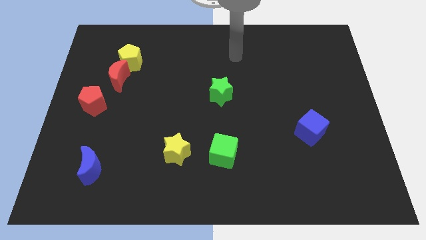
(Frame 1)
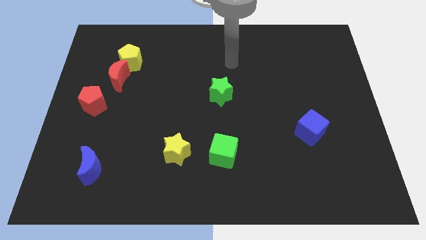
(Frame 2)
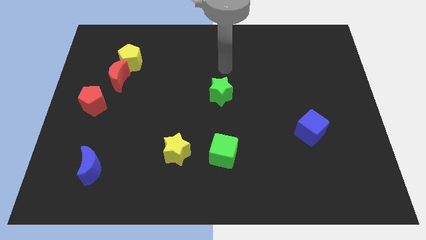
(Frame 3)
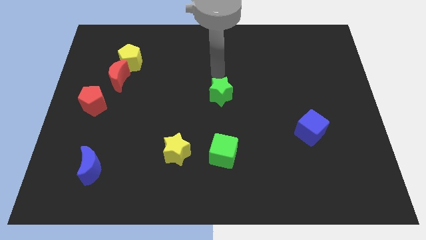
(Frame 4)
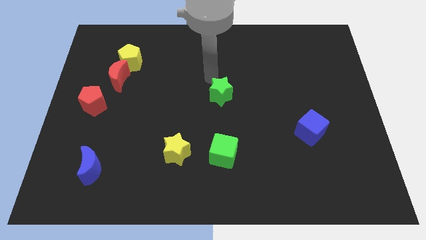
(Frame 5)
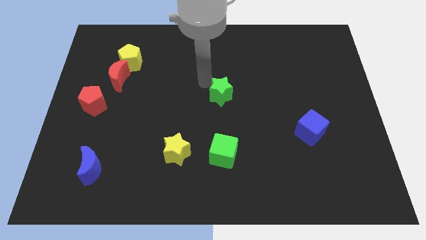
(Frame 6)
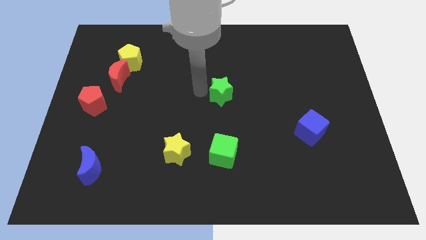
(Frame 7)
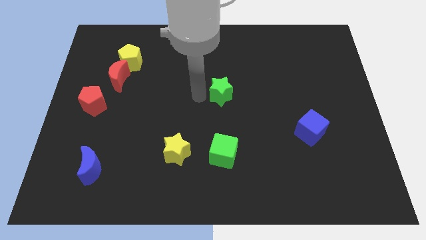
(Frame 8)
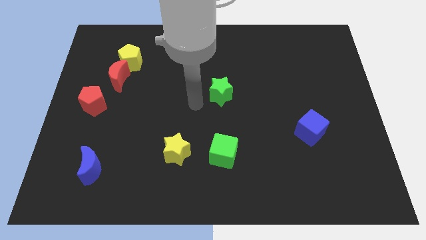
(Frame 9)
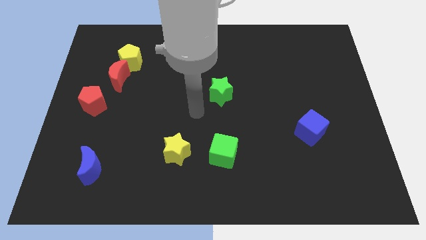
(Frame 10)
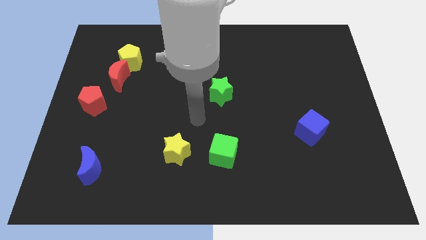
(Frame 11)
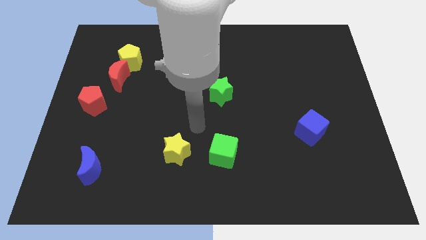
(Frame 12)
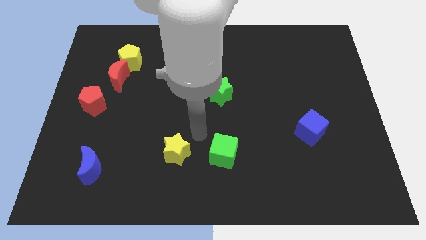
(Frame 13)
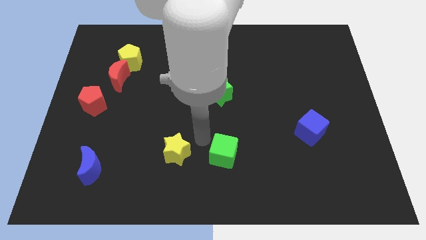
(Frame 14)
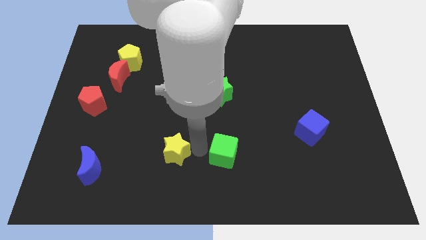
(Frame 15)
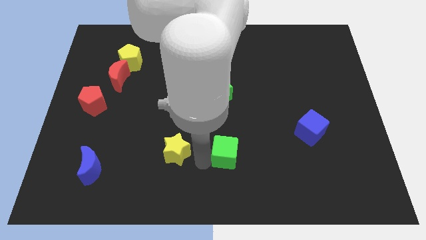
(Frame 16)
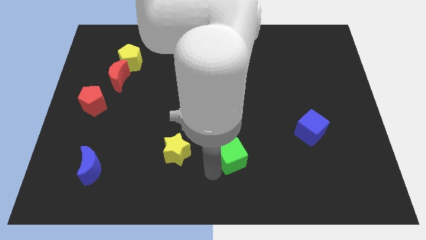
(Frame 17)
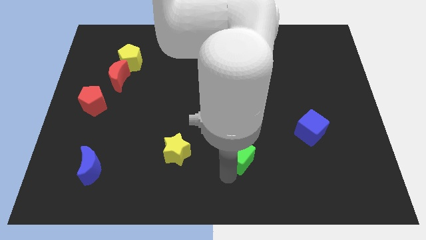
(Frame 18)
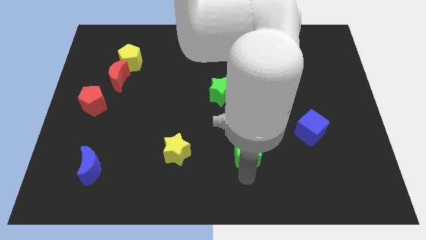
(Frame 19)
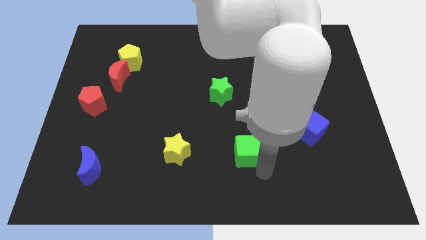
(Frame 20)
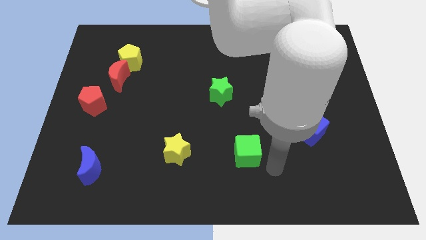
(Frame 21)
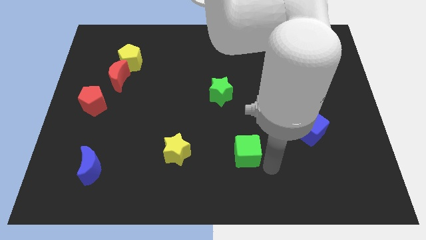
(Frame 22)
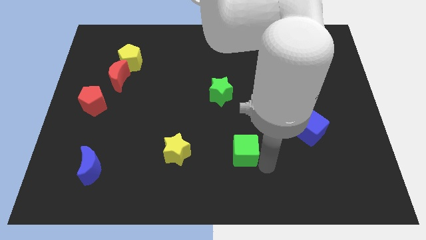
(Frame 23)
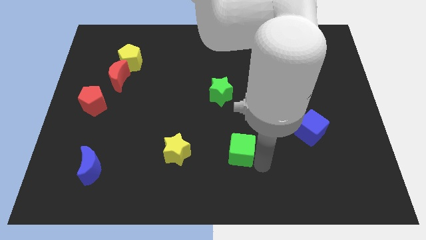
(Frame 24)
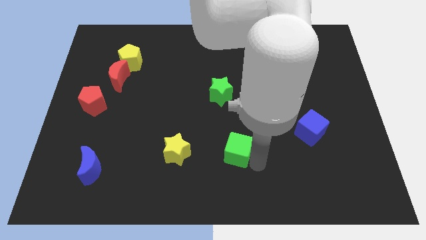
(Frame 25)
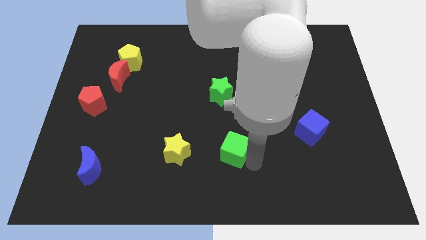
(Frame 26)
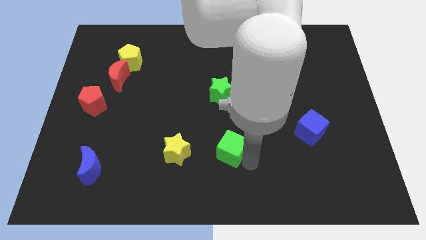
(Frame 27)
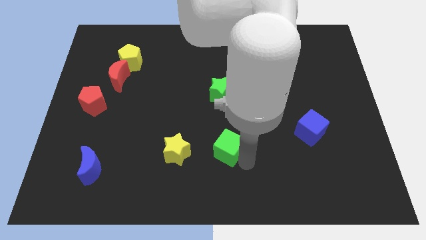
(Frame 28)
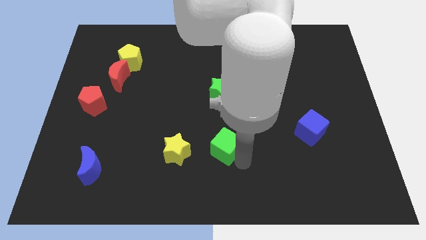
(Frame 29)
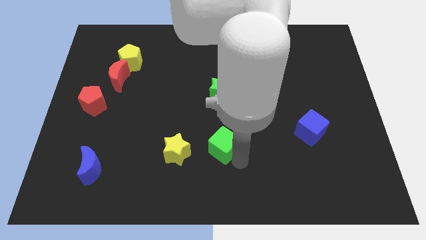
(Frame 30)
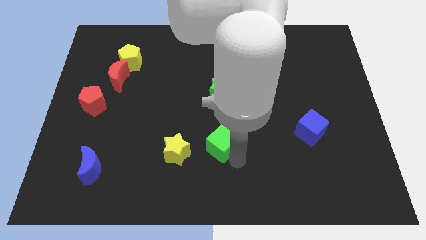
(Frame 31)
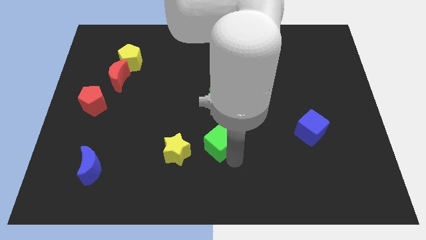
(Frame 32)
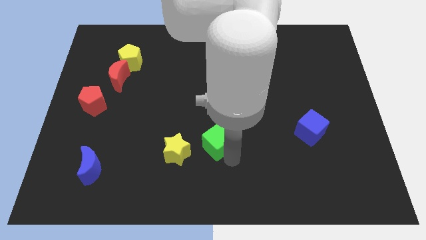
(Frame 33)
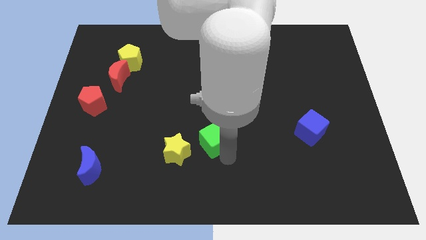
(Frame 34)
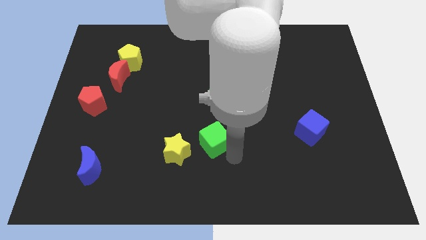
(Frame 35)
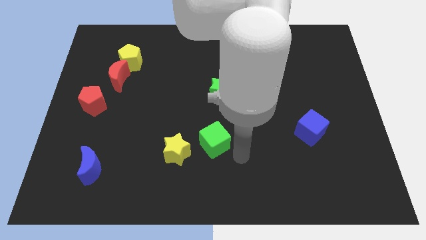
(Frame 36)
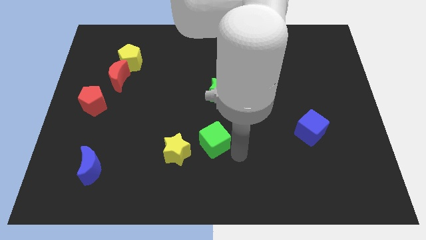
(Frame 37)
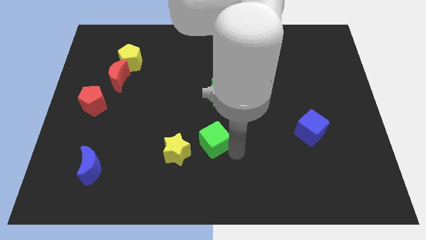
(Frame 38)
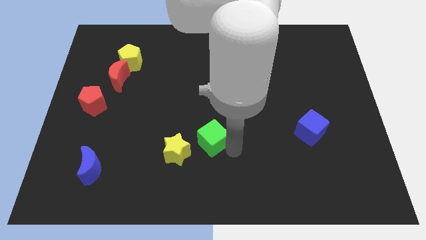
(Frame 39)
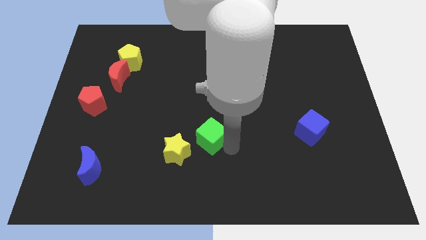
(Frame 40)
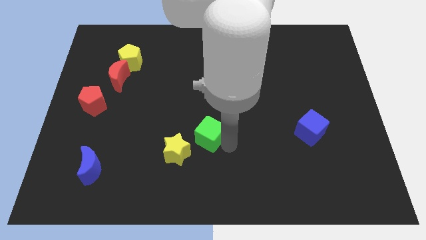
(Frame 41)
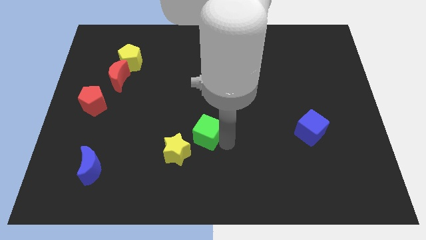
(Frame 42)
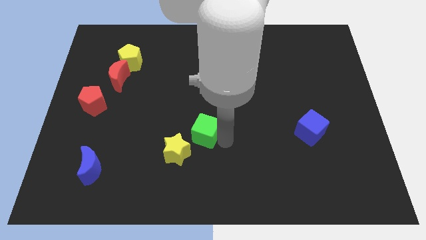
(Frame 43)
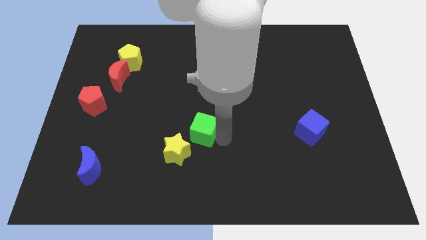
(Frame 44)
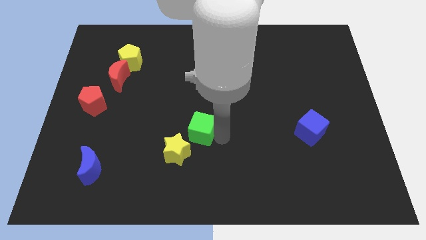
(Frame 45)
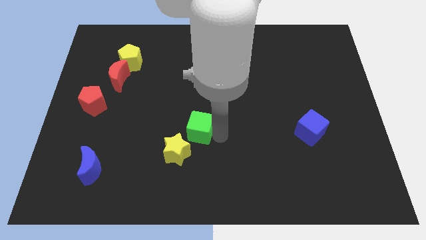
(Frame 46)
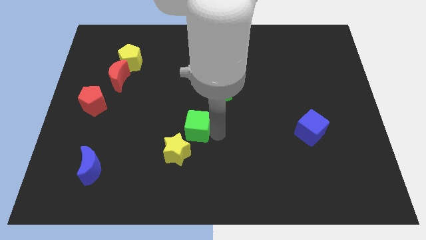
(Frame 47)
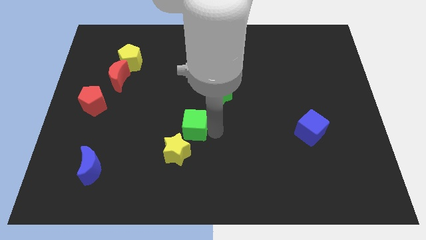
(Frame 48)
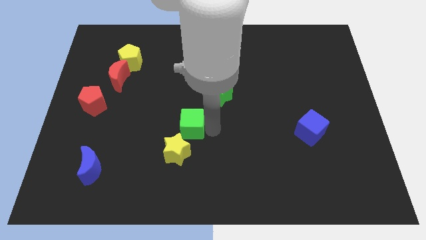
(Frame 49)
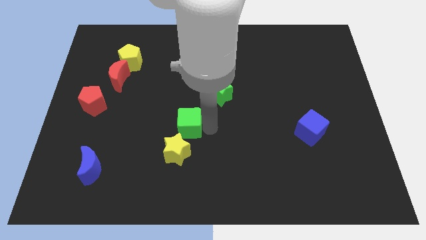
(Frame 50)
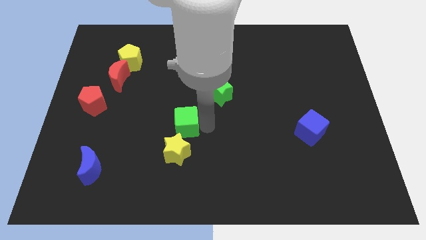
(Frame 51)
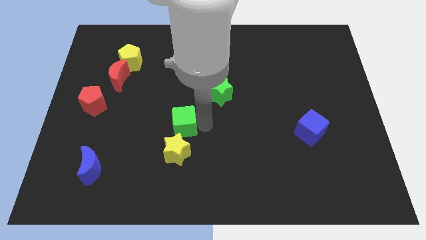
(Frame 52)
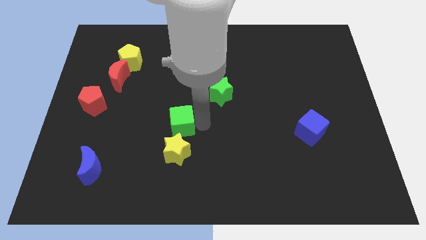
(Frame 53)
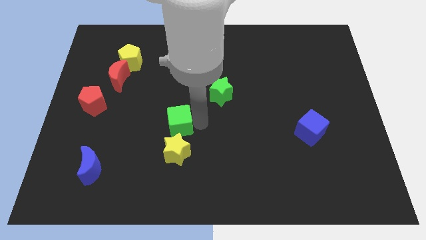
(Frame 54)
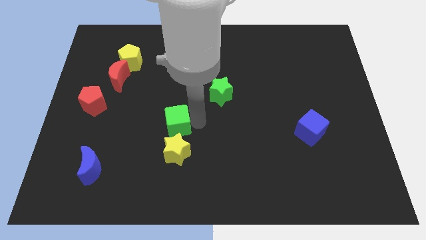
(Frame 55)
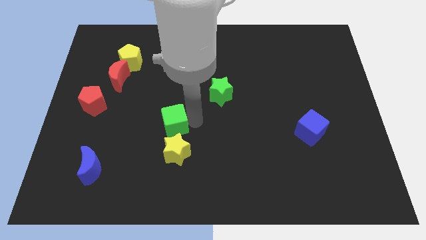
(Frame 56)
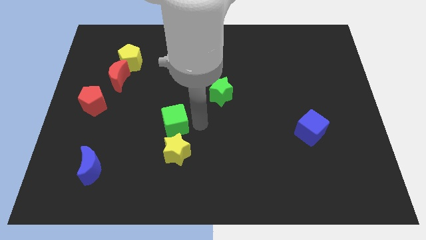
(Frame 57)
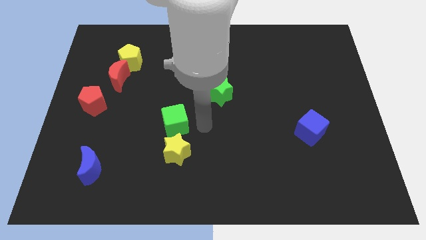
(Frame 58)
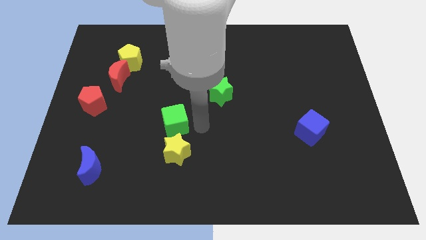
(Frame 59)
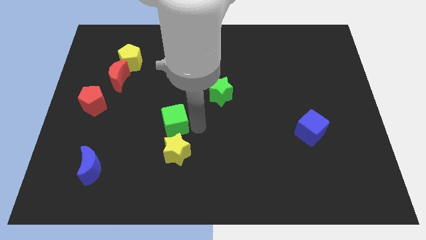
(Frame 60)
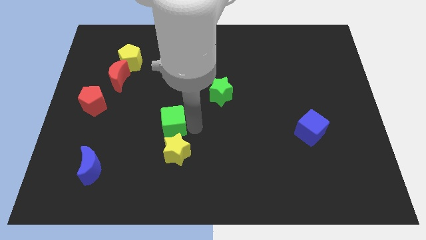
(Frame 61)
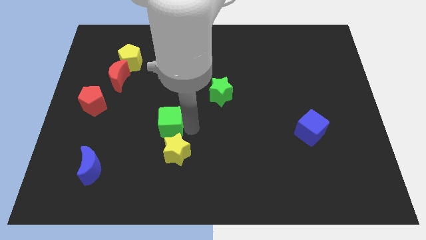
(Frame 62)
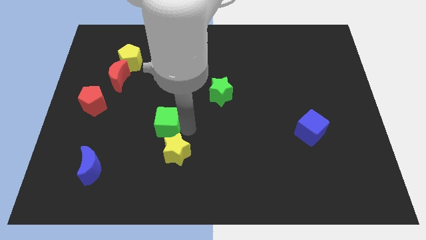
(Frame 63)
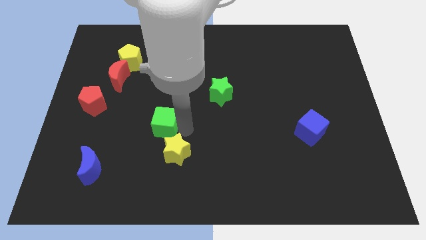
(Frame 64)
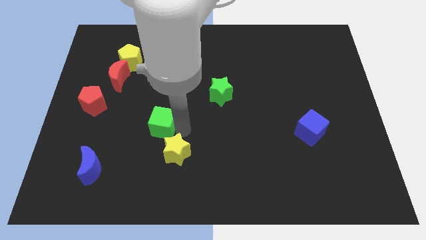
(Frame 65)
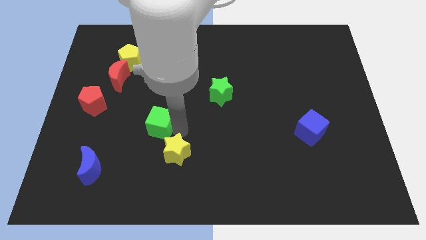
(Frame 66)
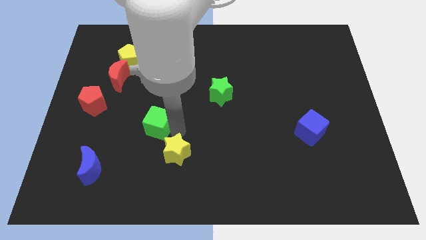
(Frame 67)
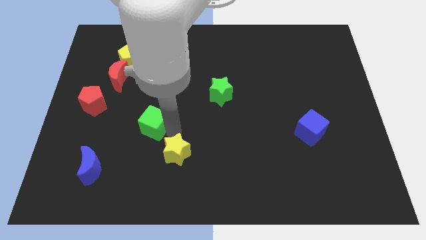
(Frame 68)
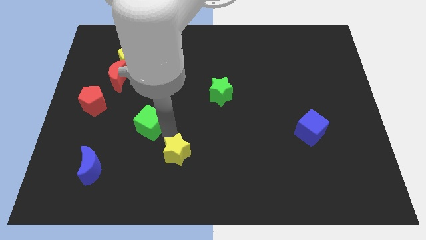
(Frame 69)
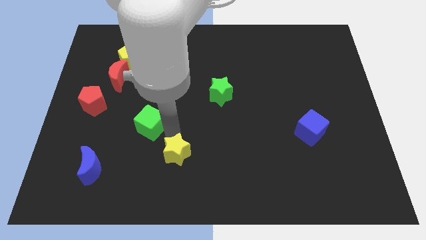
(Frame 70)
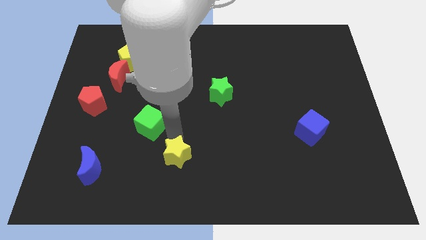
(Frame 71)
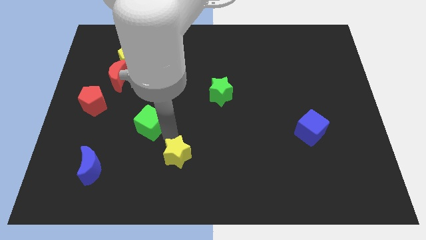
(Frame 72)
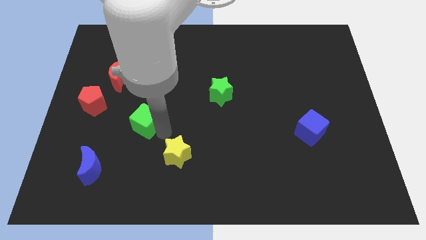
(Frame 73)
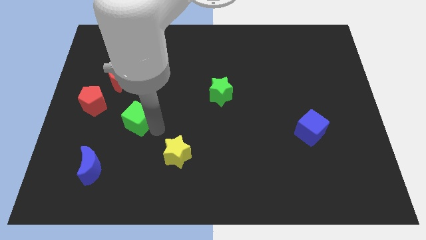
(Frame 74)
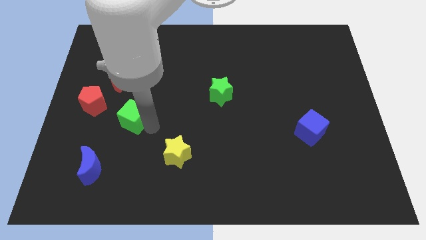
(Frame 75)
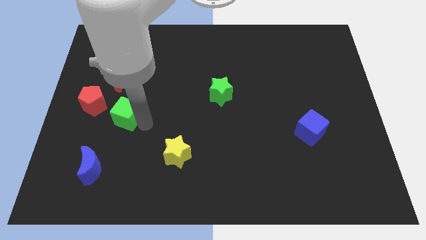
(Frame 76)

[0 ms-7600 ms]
put the green cube to the bottom side of the red moon
